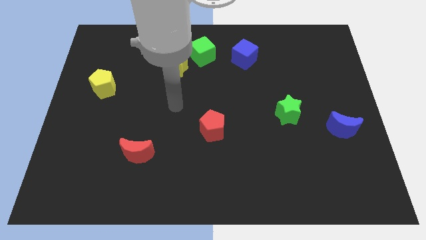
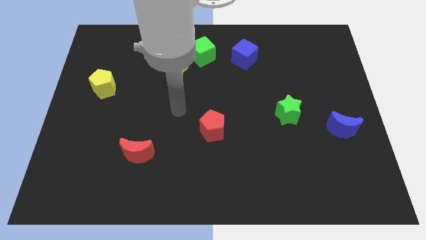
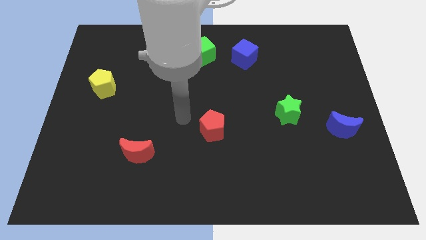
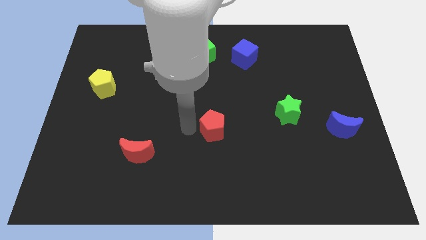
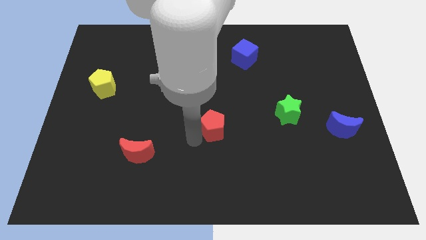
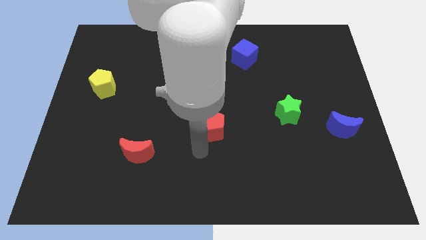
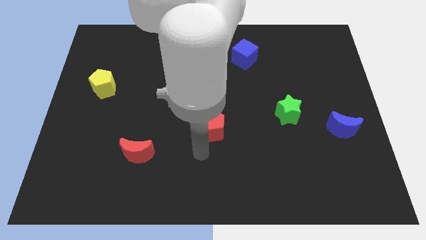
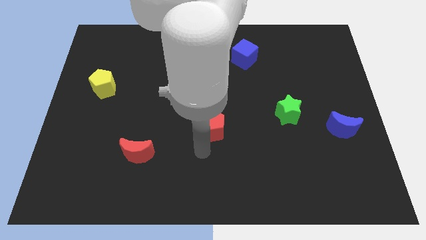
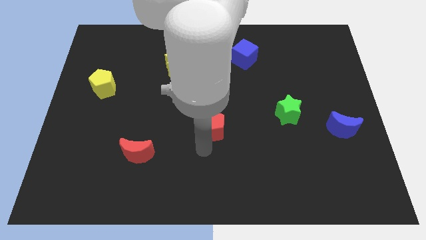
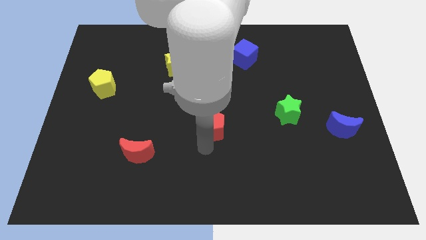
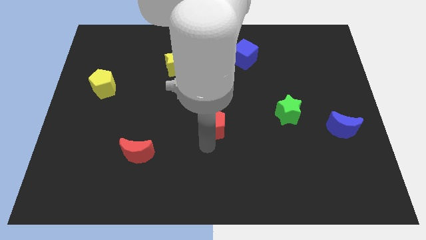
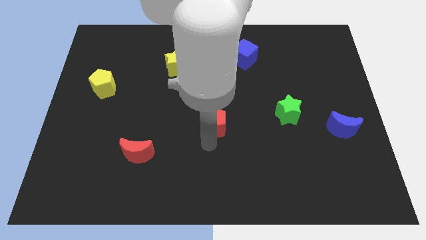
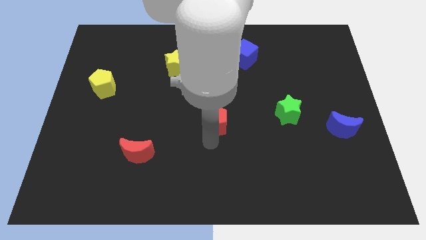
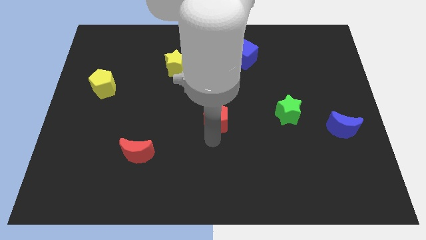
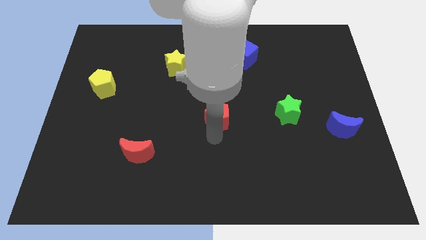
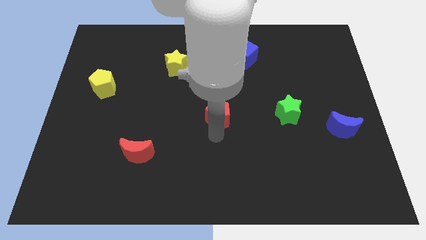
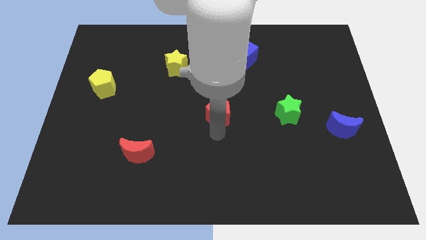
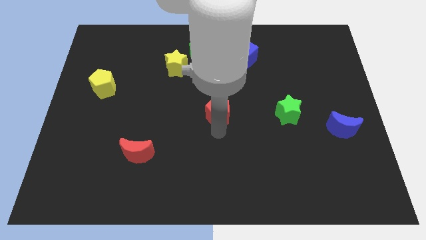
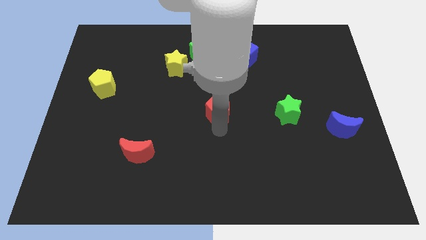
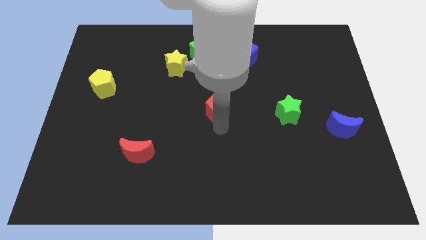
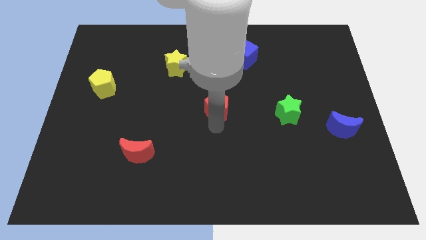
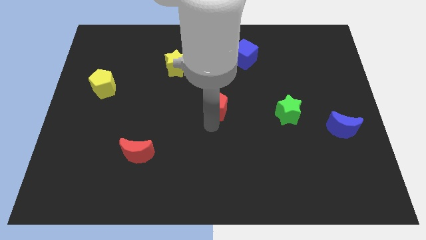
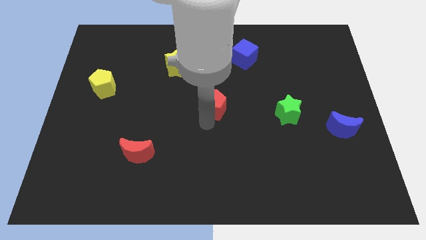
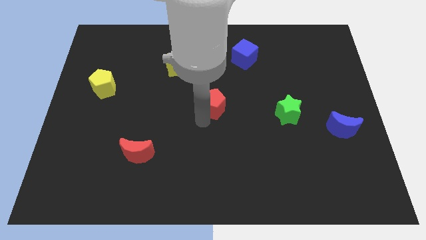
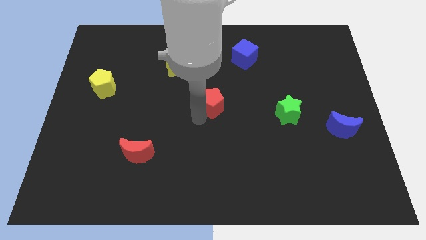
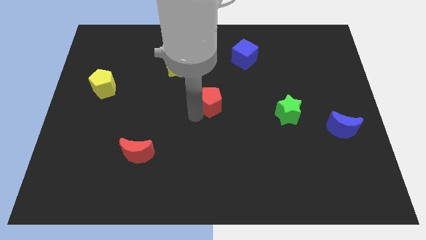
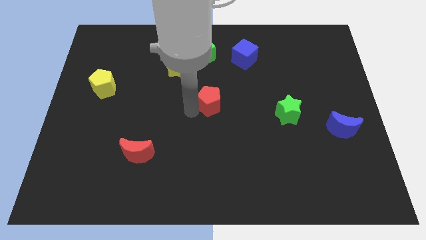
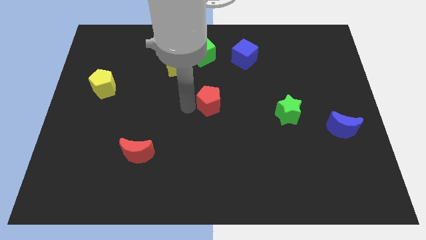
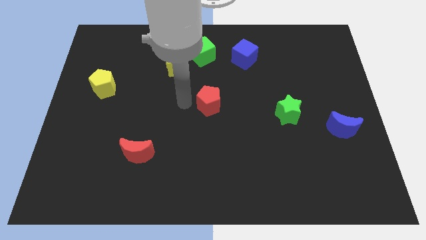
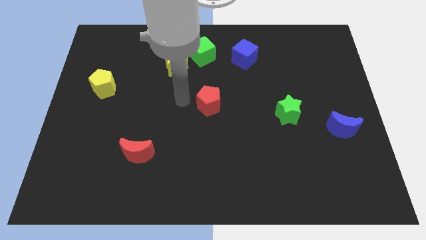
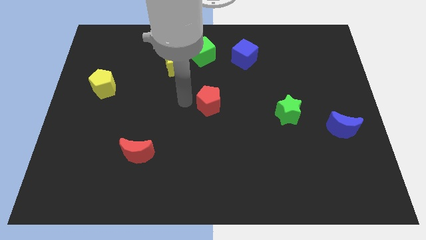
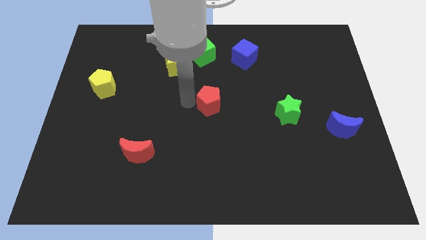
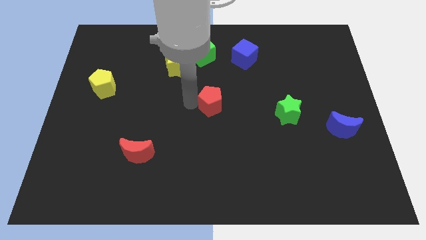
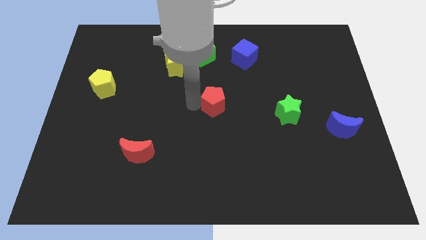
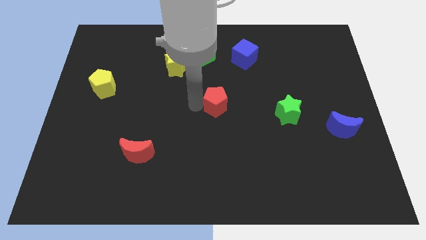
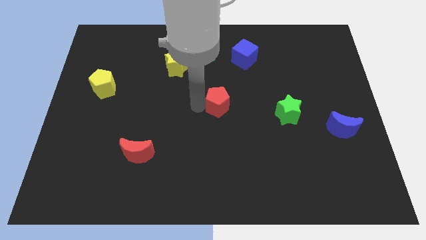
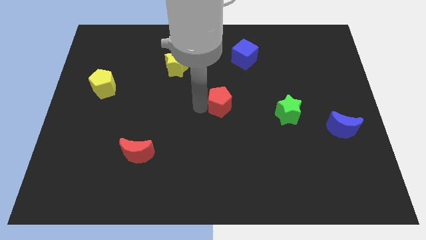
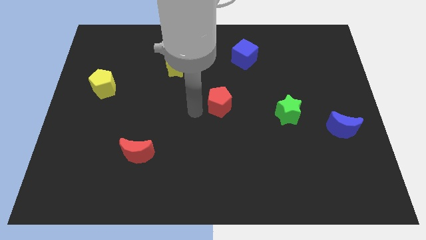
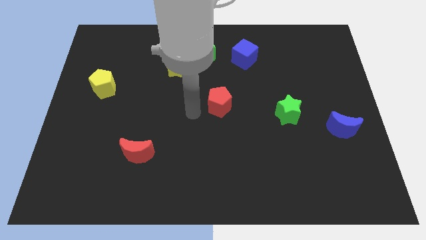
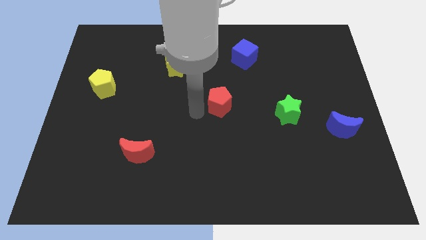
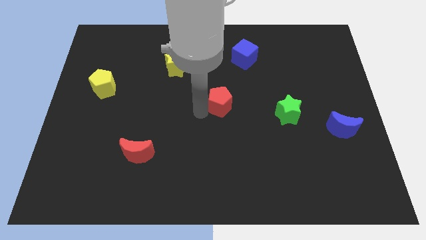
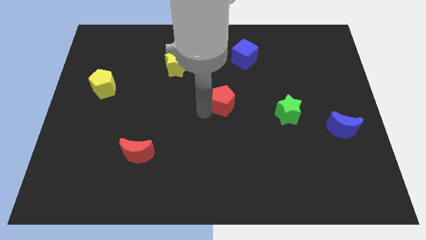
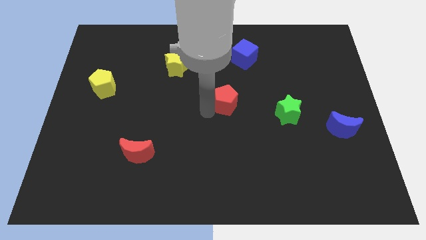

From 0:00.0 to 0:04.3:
slightly push the red pentagon upwards and to the right diagonally

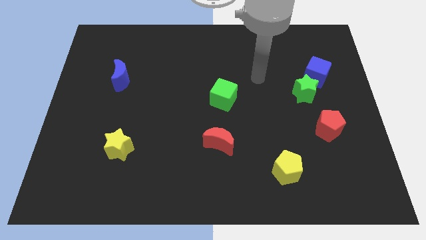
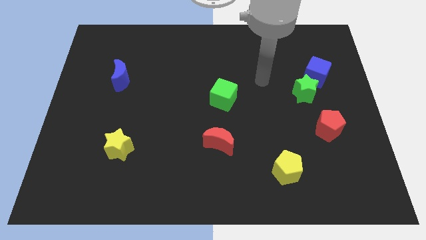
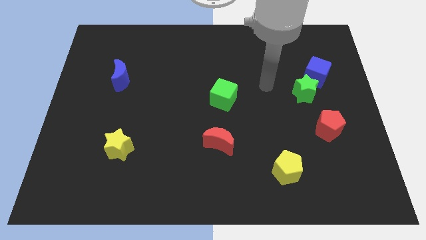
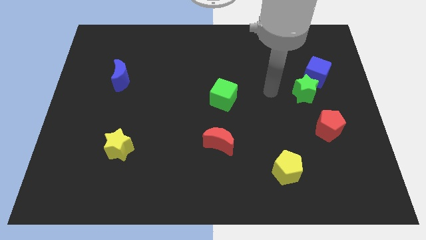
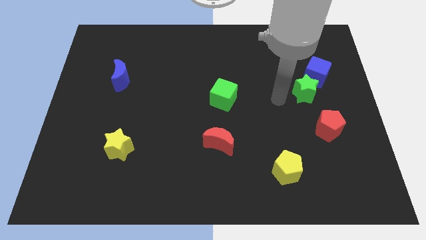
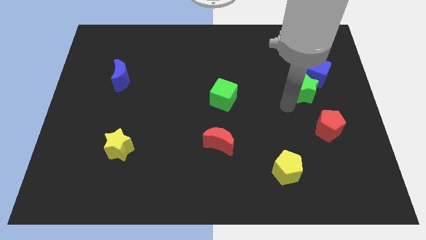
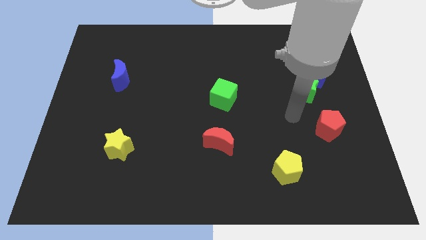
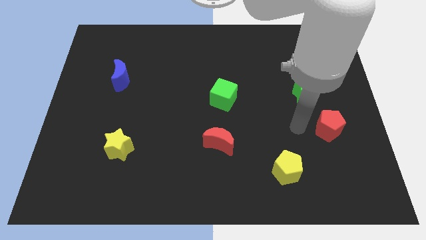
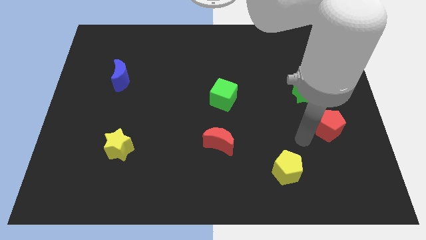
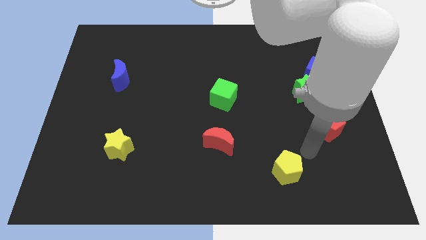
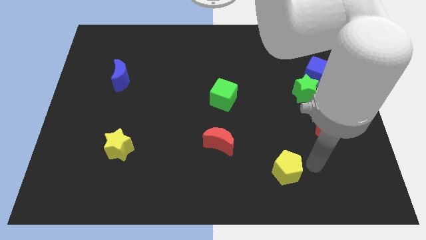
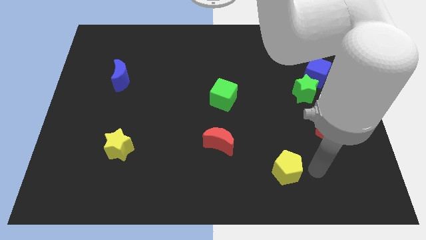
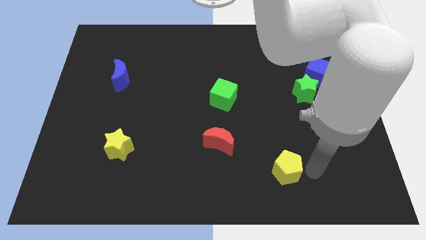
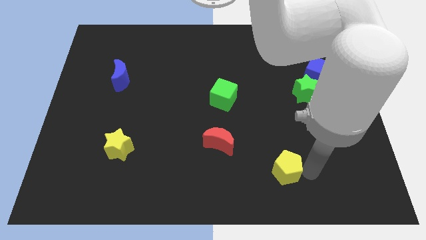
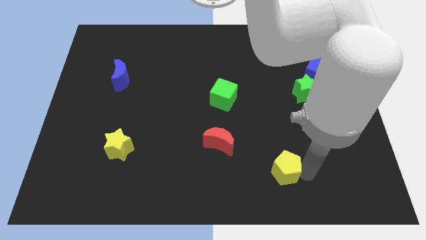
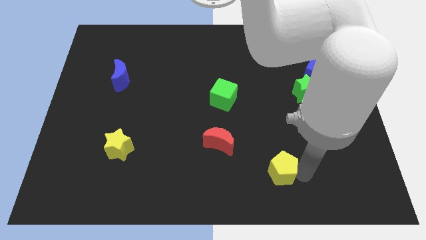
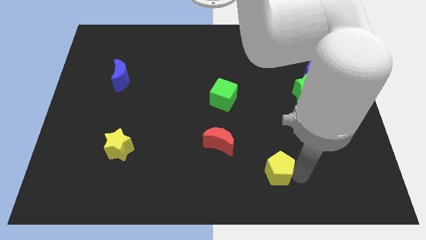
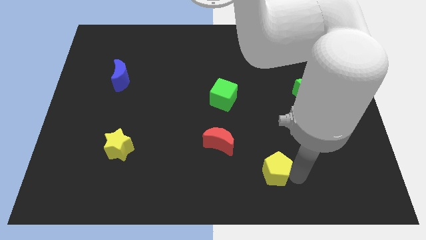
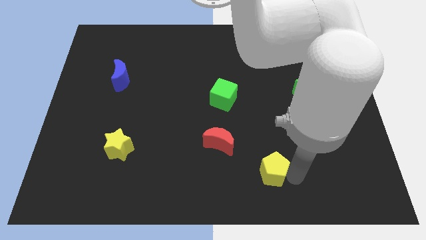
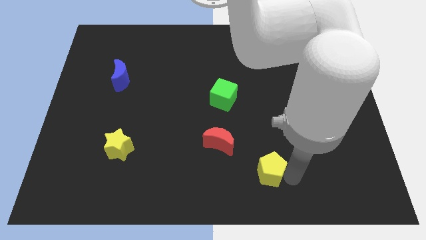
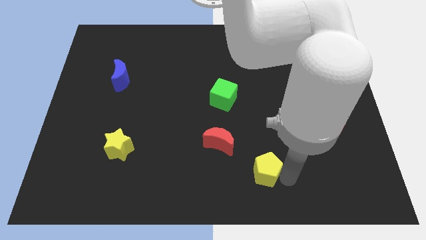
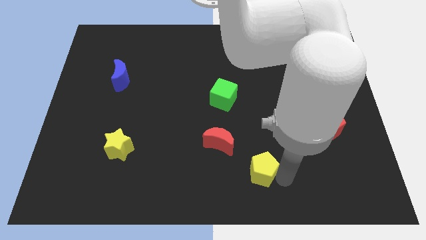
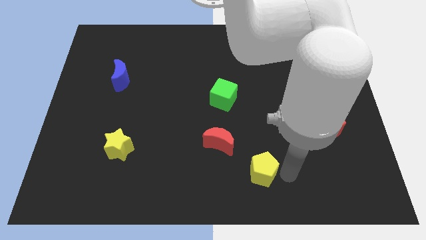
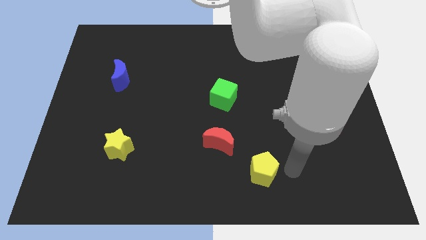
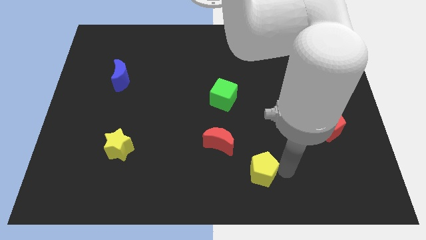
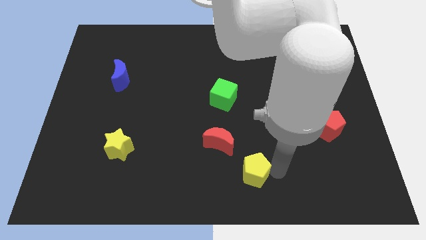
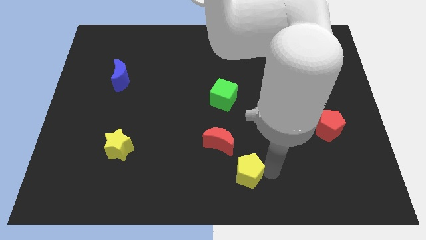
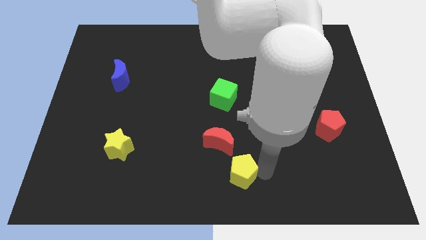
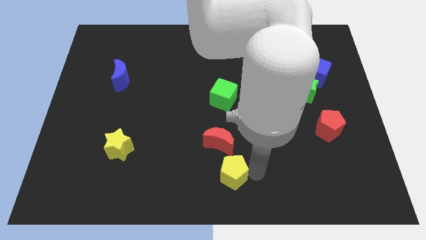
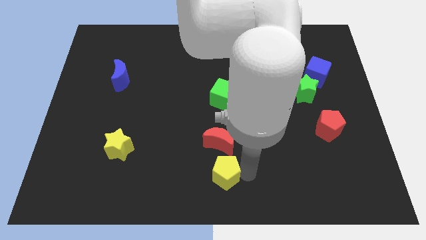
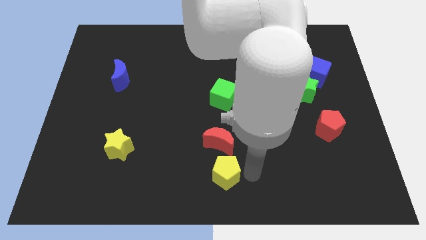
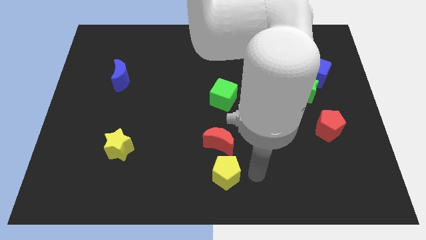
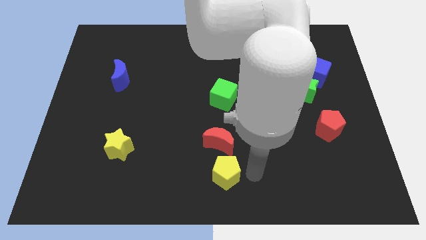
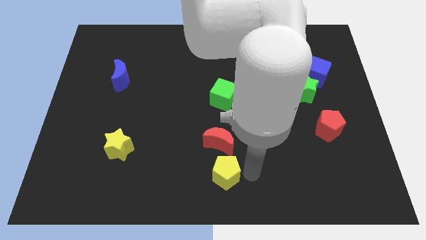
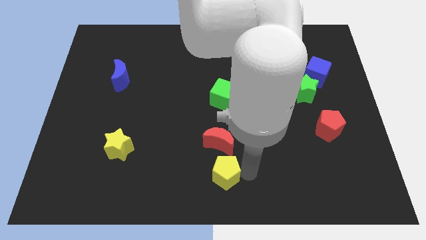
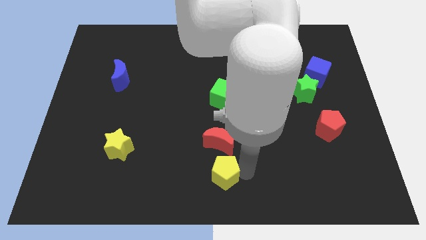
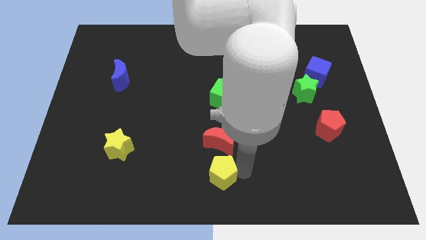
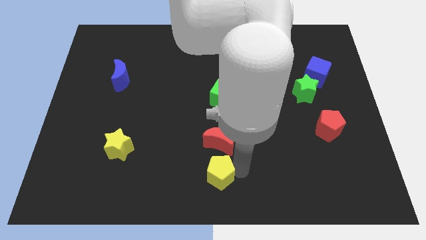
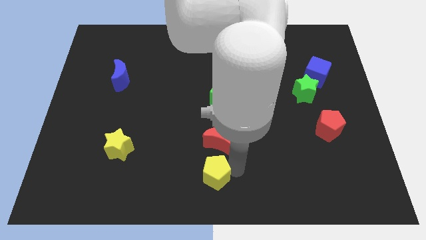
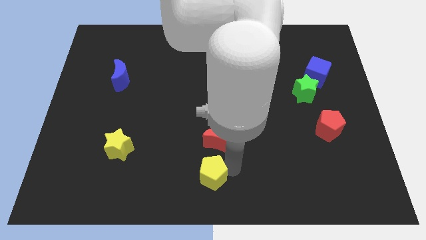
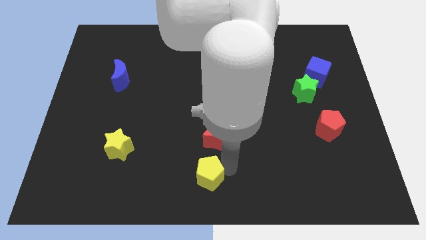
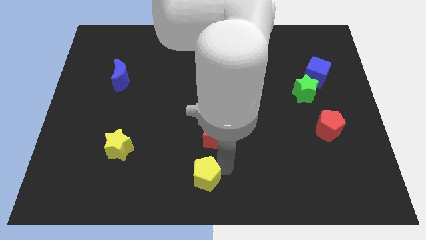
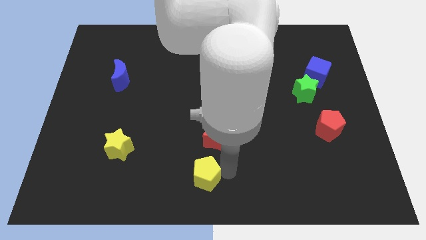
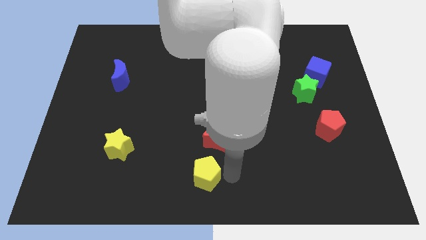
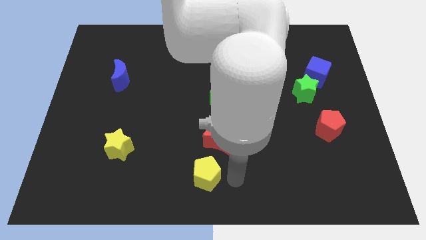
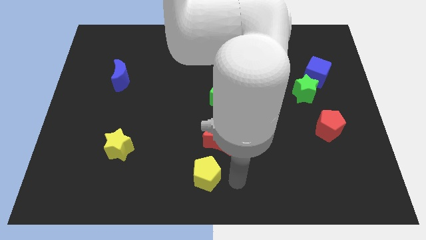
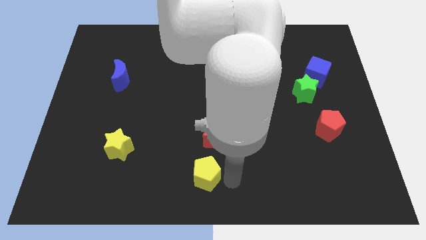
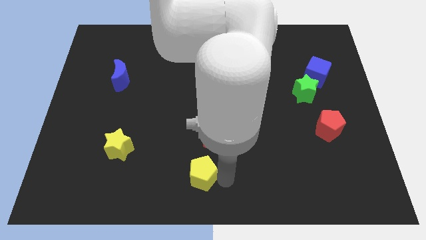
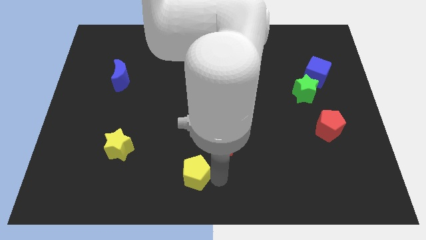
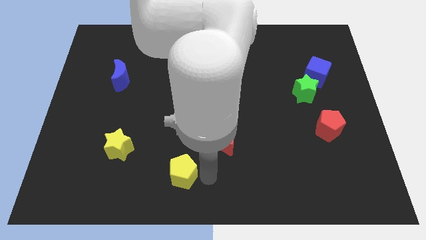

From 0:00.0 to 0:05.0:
slide the yellow pentagon left
